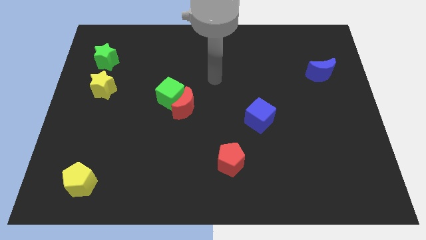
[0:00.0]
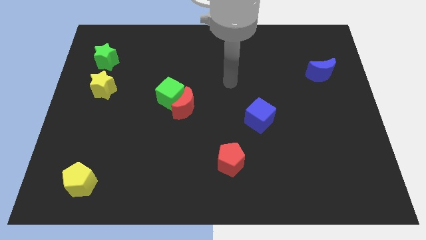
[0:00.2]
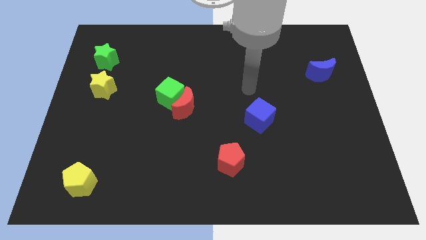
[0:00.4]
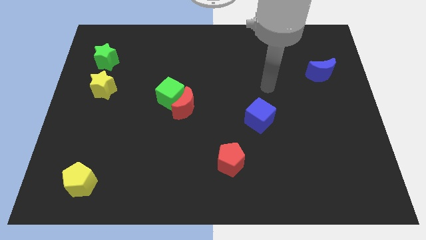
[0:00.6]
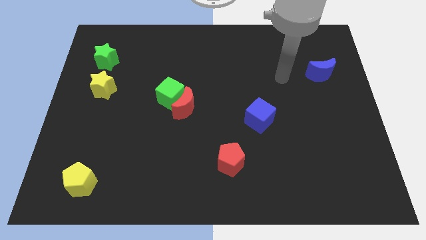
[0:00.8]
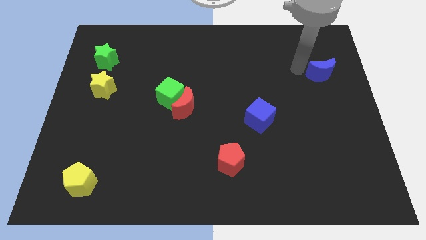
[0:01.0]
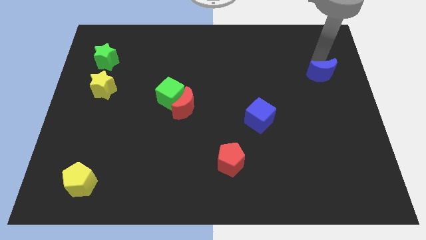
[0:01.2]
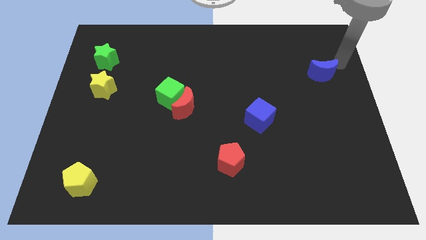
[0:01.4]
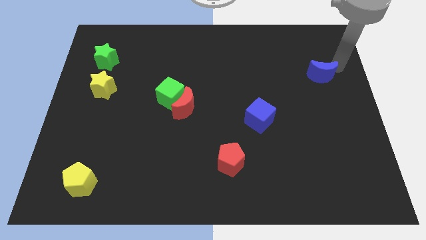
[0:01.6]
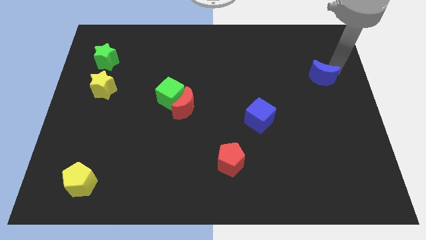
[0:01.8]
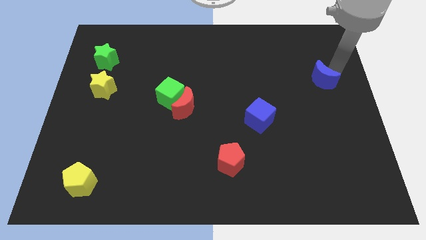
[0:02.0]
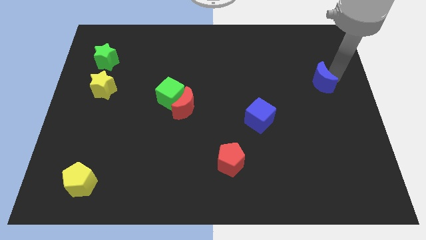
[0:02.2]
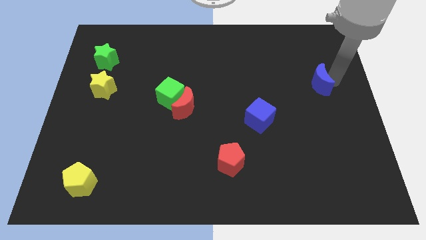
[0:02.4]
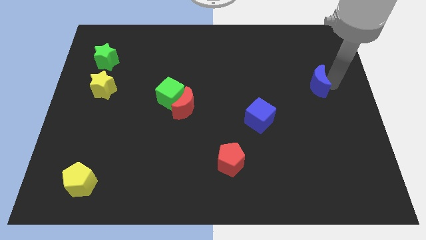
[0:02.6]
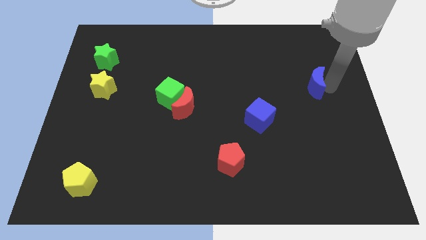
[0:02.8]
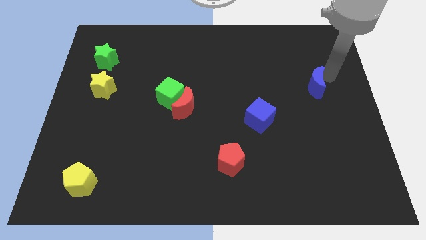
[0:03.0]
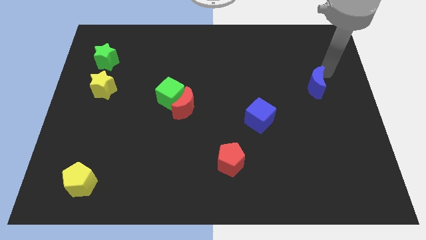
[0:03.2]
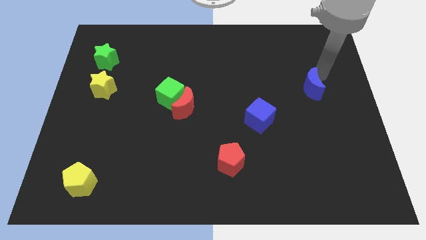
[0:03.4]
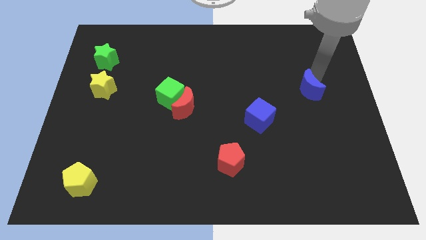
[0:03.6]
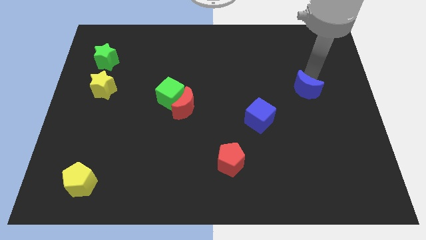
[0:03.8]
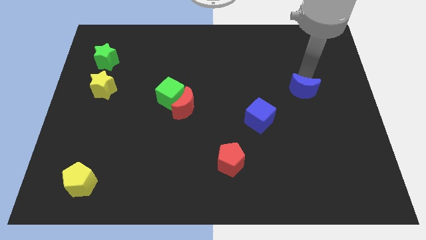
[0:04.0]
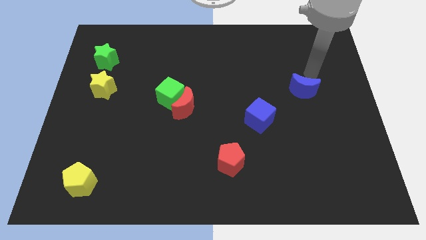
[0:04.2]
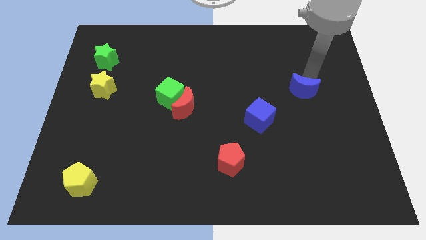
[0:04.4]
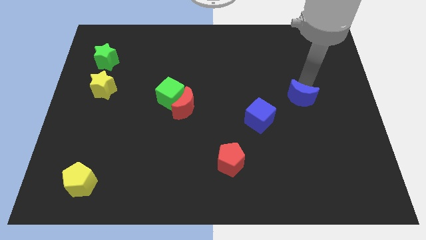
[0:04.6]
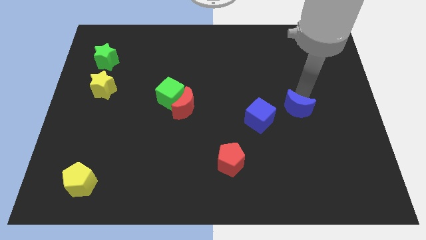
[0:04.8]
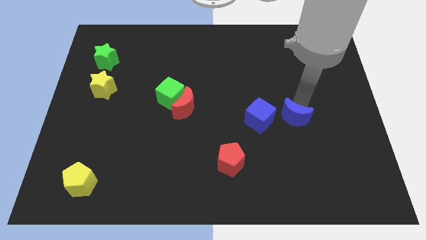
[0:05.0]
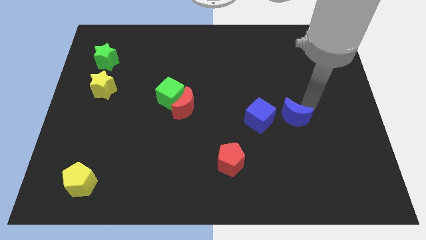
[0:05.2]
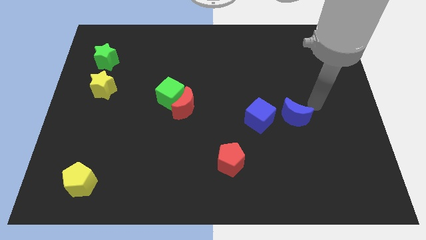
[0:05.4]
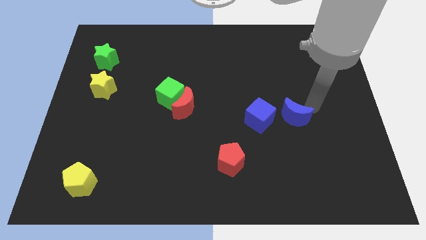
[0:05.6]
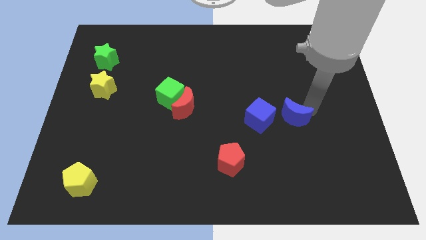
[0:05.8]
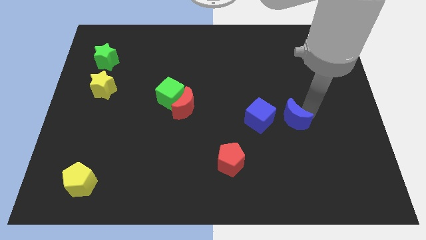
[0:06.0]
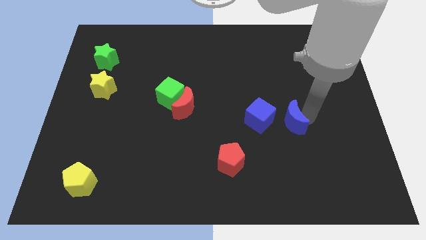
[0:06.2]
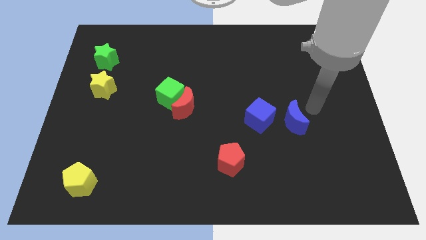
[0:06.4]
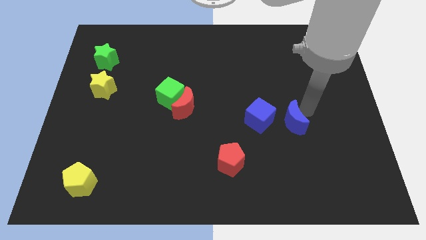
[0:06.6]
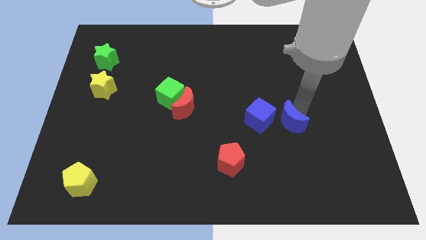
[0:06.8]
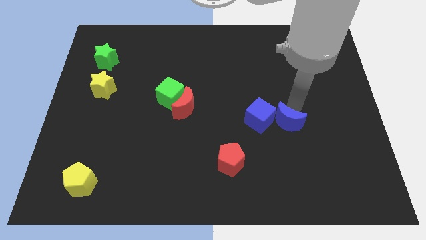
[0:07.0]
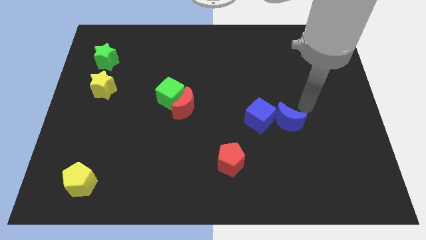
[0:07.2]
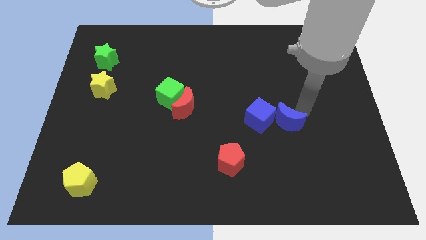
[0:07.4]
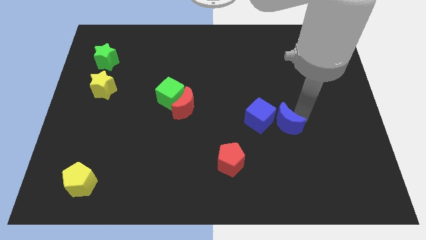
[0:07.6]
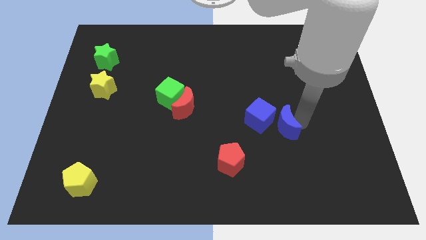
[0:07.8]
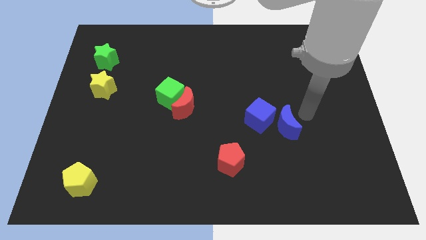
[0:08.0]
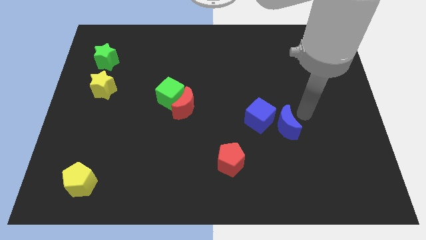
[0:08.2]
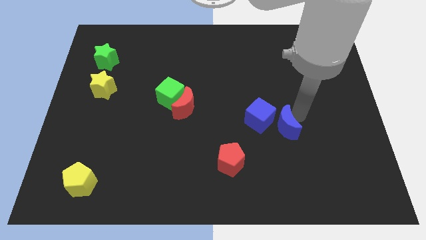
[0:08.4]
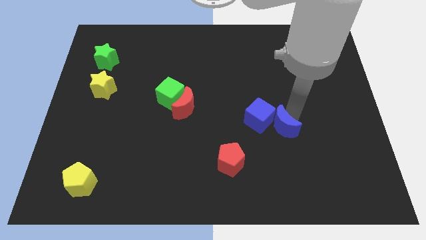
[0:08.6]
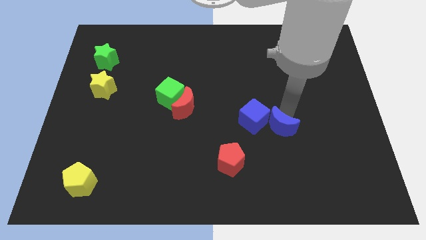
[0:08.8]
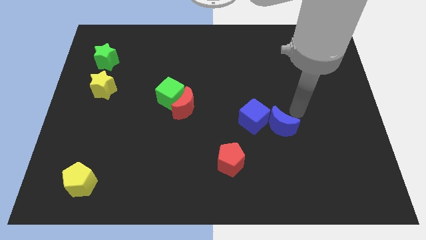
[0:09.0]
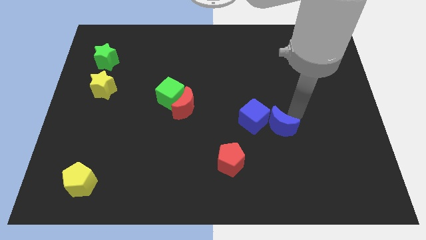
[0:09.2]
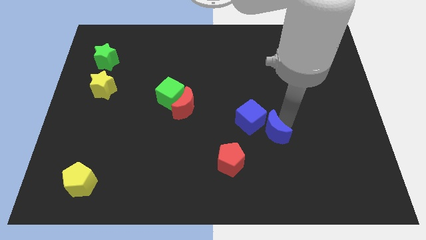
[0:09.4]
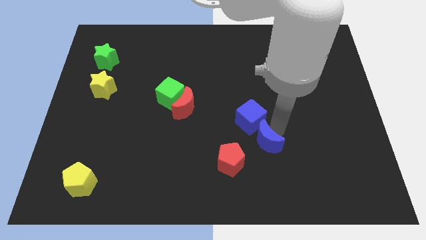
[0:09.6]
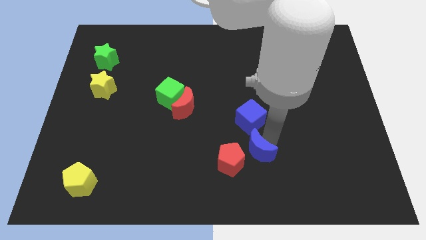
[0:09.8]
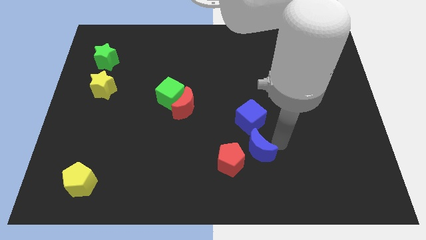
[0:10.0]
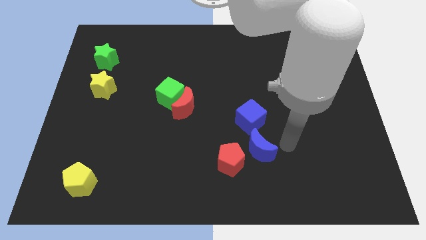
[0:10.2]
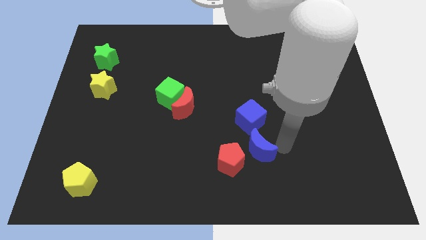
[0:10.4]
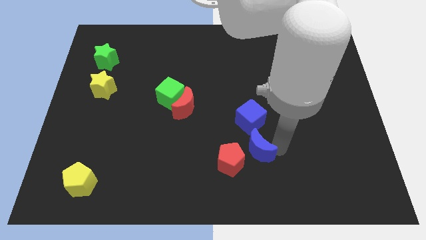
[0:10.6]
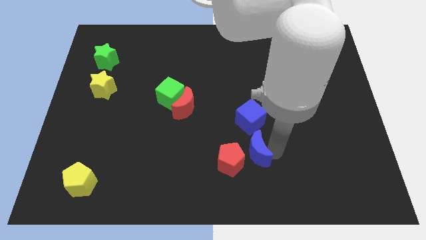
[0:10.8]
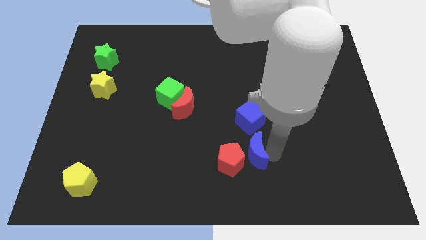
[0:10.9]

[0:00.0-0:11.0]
slide the blue moon towards the red pentagon

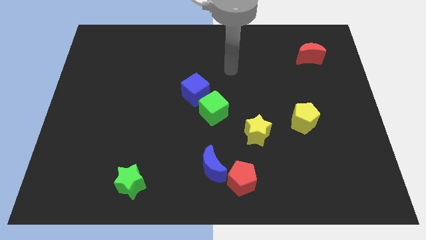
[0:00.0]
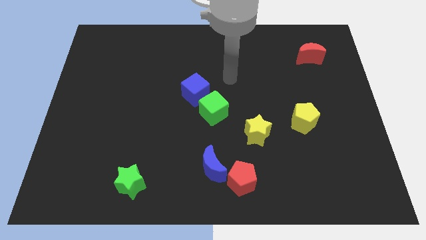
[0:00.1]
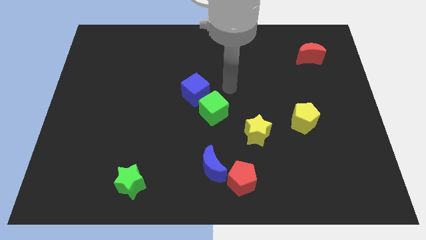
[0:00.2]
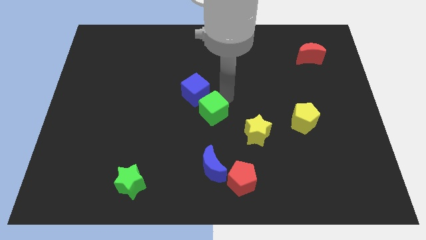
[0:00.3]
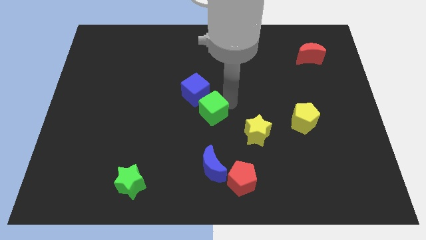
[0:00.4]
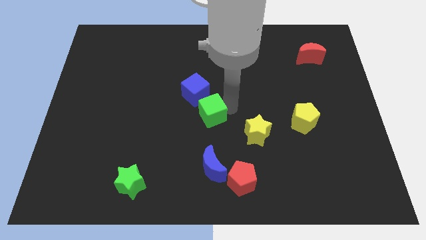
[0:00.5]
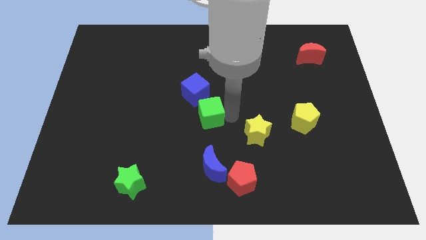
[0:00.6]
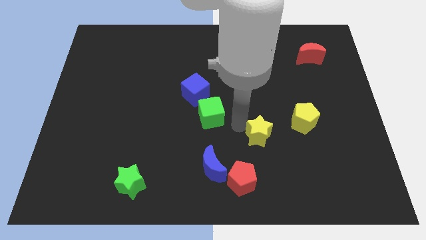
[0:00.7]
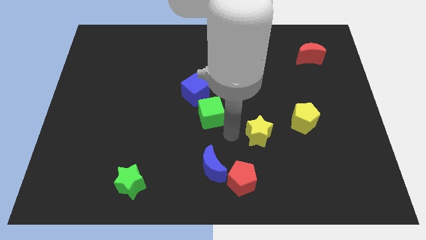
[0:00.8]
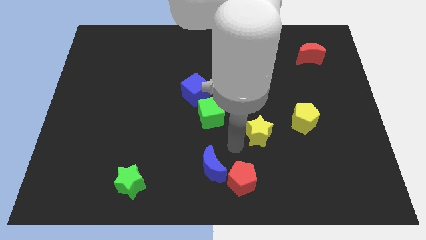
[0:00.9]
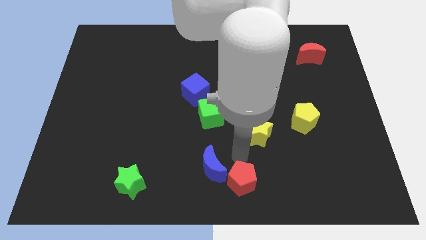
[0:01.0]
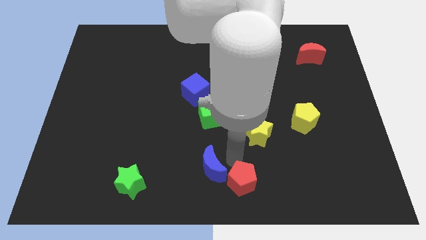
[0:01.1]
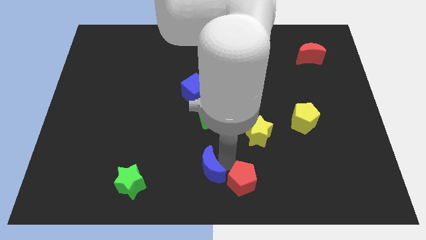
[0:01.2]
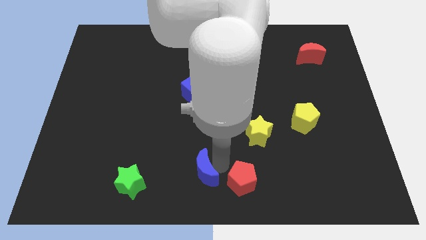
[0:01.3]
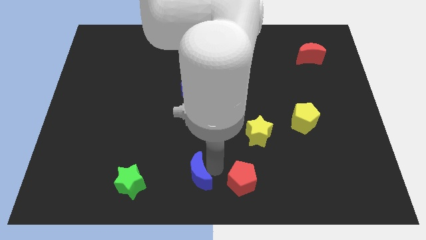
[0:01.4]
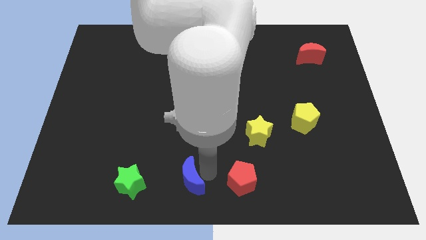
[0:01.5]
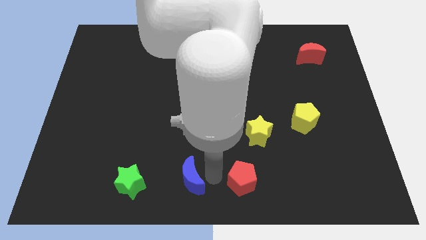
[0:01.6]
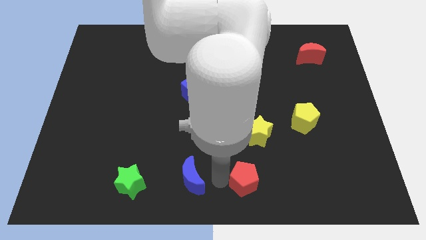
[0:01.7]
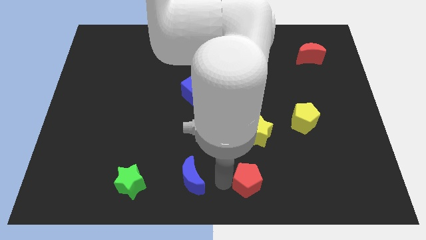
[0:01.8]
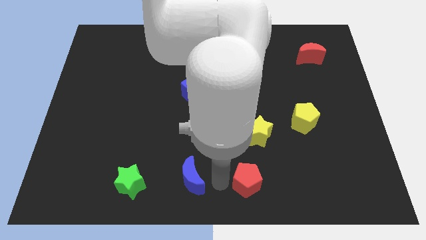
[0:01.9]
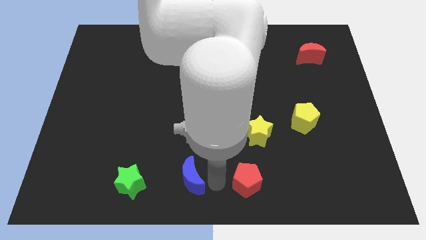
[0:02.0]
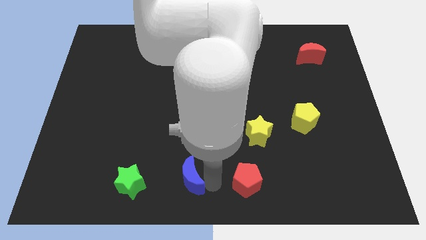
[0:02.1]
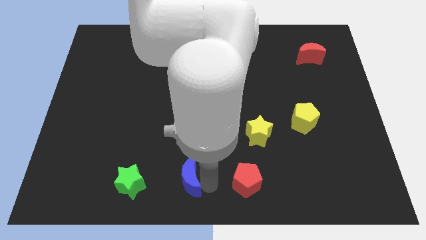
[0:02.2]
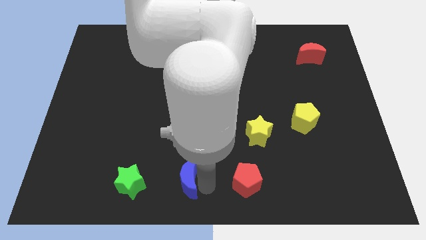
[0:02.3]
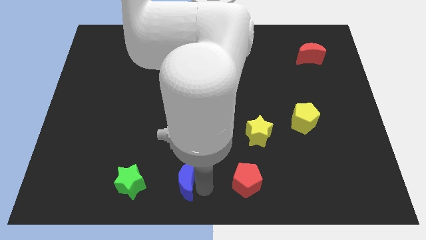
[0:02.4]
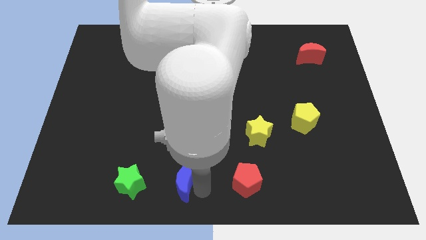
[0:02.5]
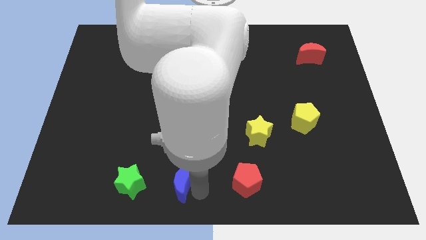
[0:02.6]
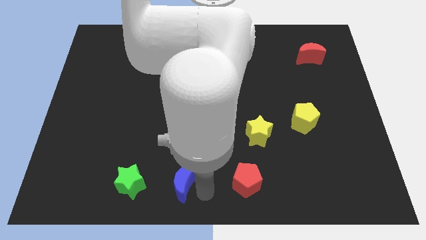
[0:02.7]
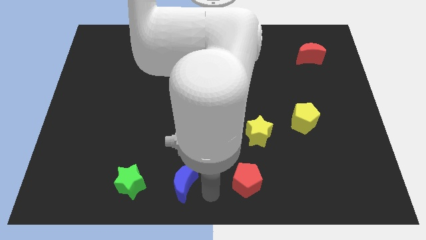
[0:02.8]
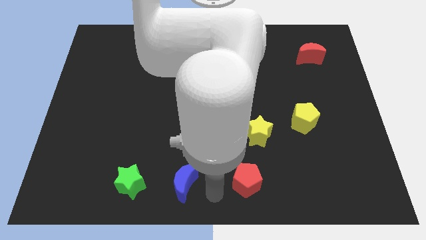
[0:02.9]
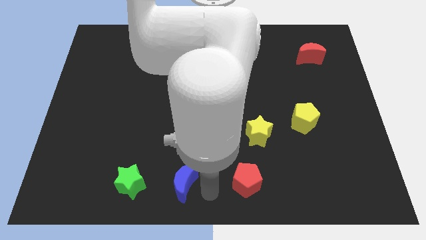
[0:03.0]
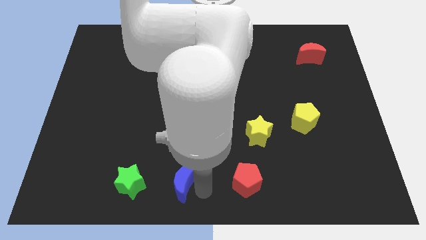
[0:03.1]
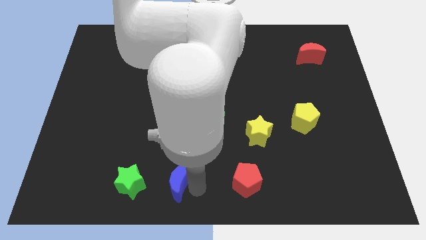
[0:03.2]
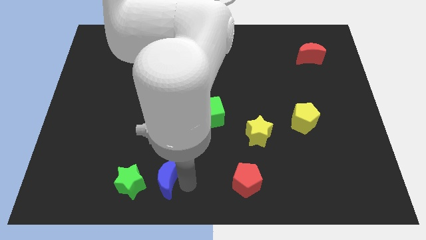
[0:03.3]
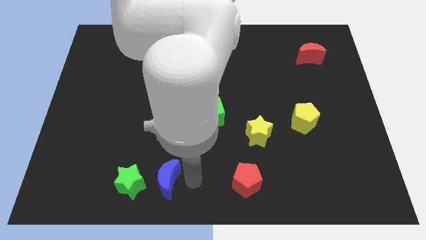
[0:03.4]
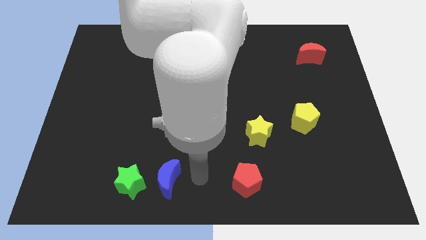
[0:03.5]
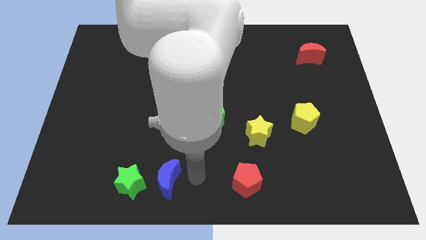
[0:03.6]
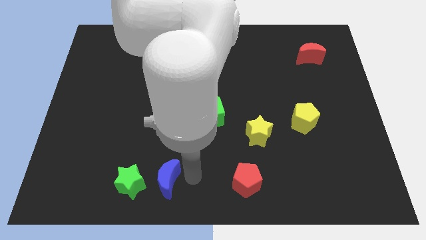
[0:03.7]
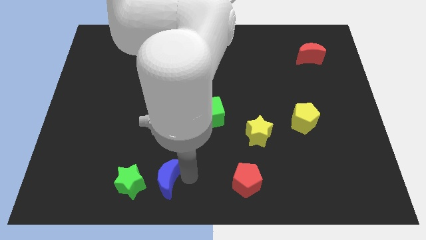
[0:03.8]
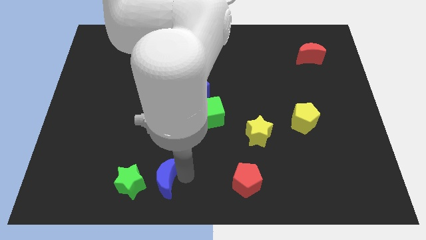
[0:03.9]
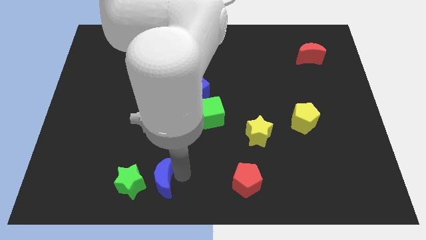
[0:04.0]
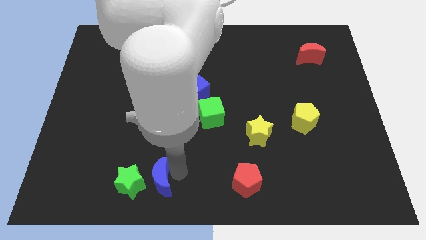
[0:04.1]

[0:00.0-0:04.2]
push the blue moon to the green star
